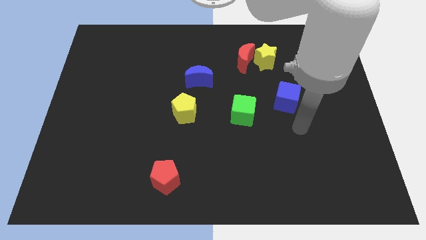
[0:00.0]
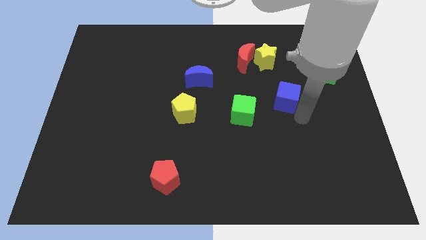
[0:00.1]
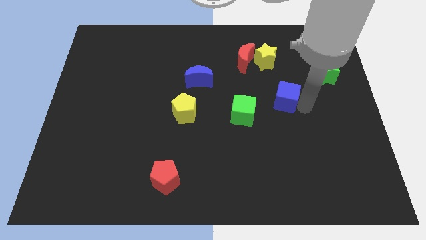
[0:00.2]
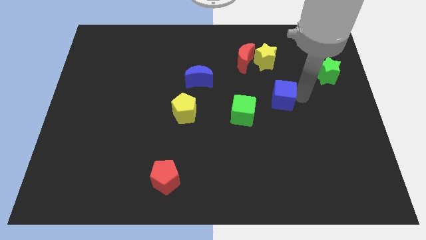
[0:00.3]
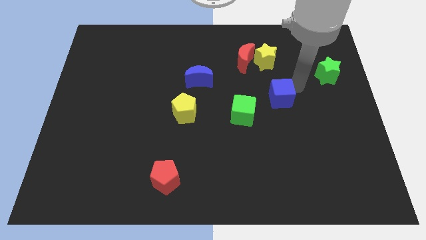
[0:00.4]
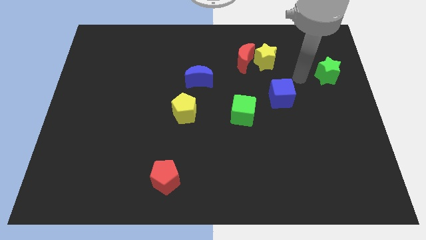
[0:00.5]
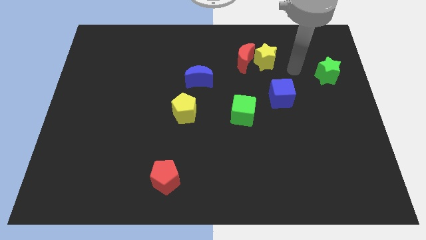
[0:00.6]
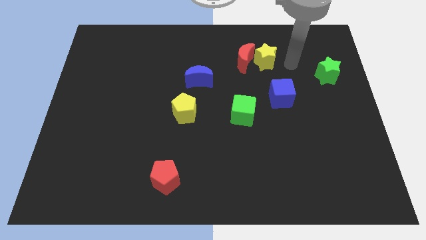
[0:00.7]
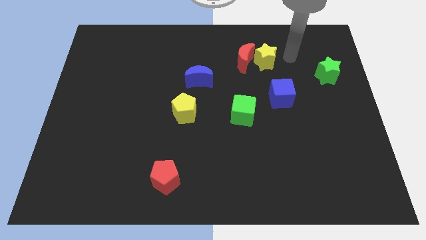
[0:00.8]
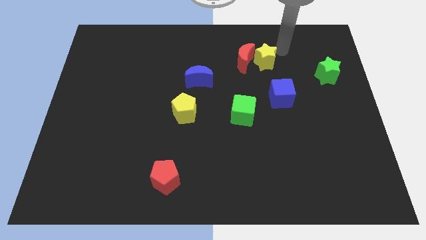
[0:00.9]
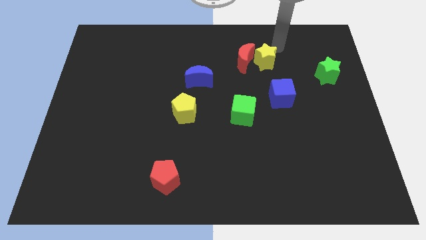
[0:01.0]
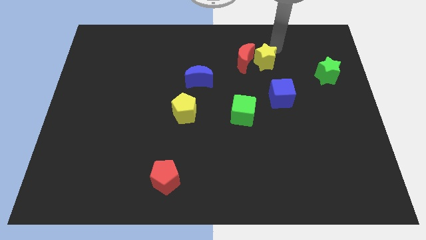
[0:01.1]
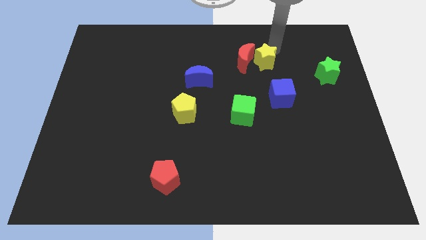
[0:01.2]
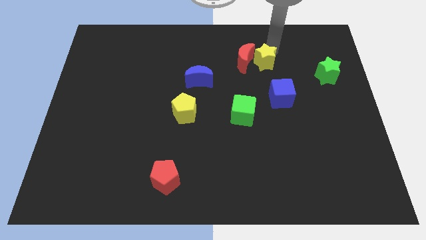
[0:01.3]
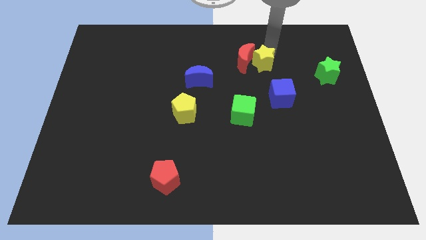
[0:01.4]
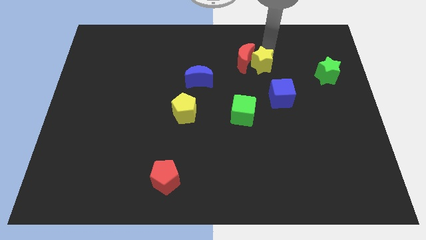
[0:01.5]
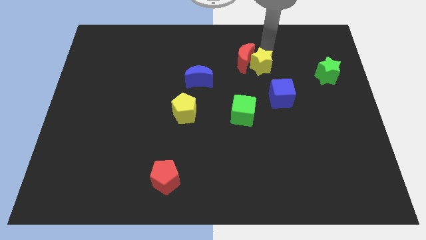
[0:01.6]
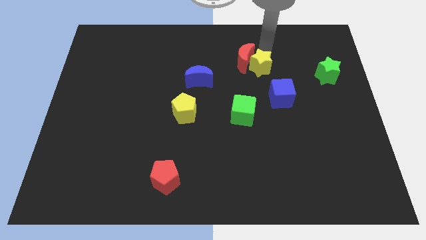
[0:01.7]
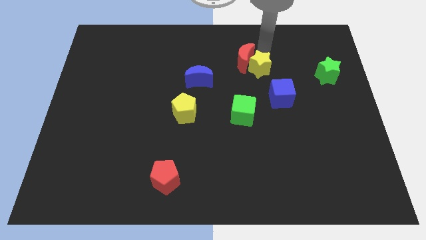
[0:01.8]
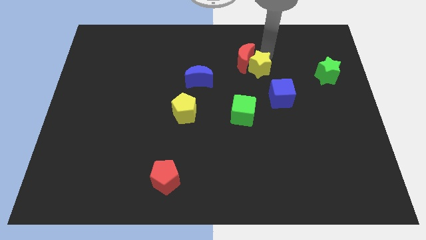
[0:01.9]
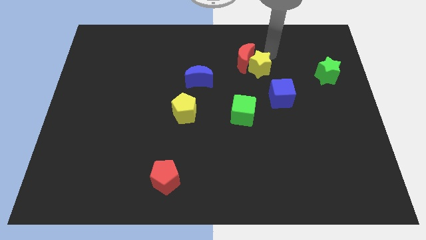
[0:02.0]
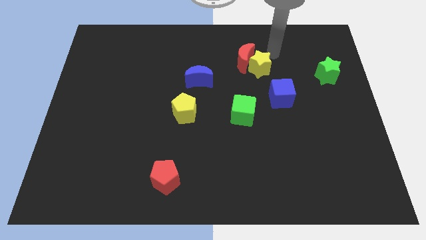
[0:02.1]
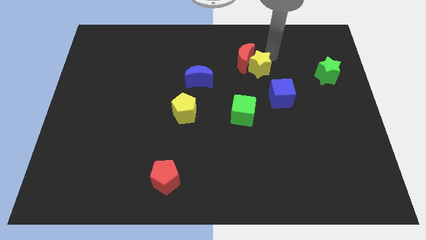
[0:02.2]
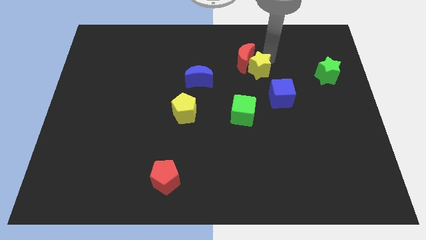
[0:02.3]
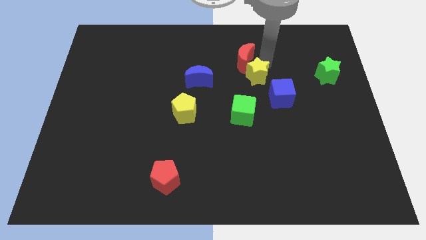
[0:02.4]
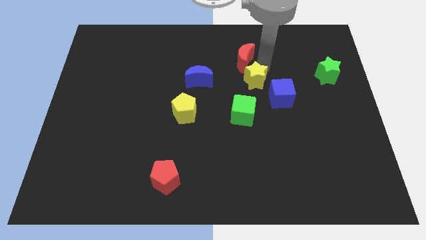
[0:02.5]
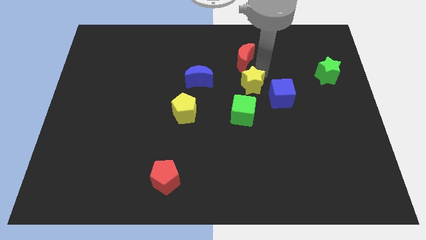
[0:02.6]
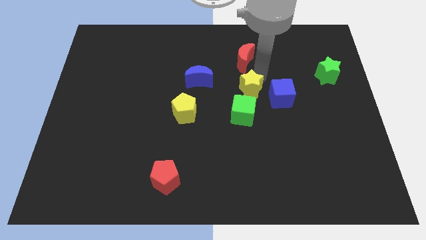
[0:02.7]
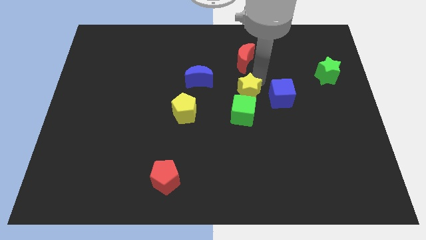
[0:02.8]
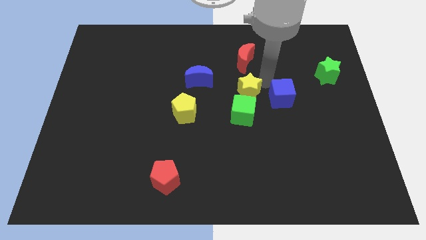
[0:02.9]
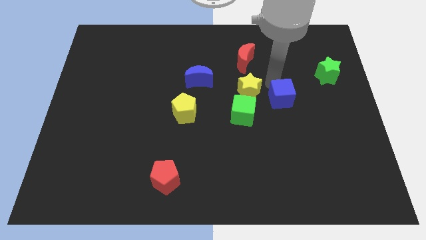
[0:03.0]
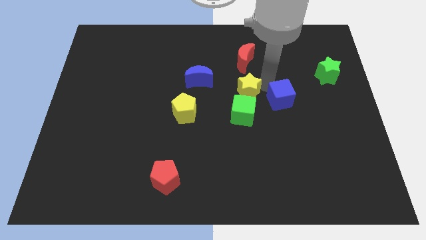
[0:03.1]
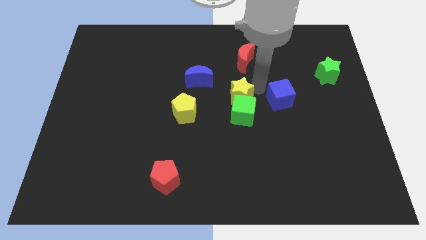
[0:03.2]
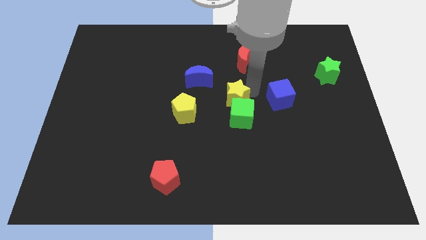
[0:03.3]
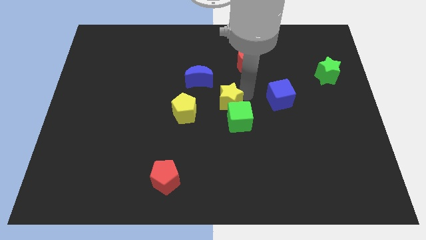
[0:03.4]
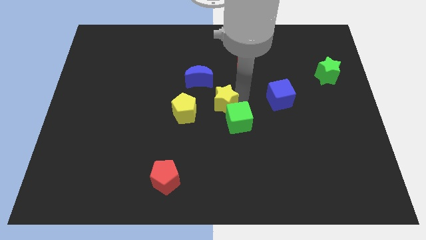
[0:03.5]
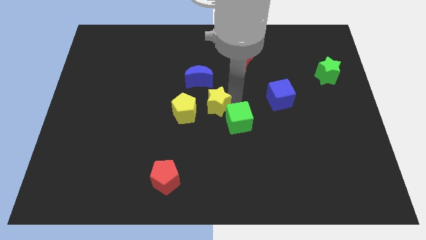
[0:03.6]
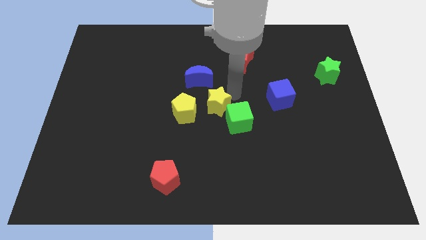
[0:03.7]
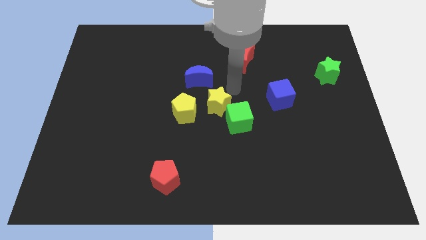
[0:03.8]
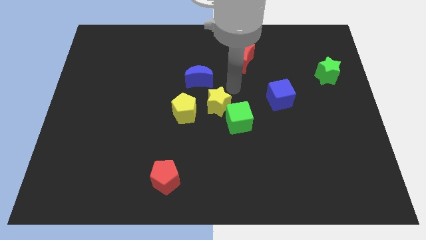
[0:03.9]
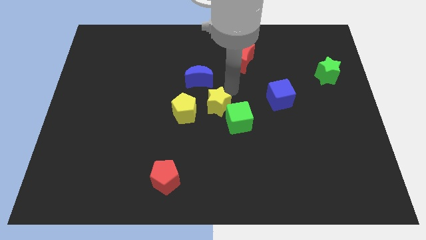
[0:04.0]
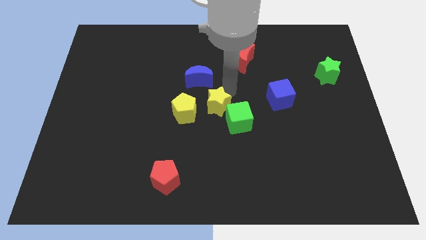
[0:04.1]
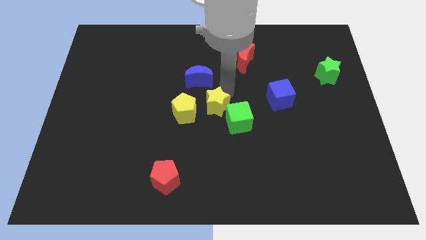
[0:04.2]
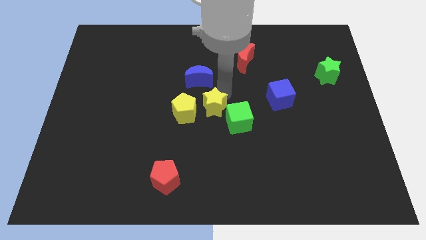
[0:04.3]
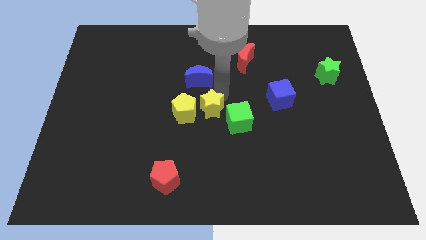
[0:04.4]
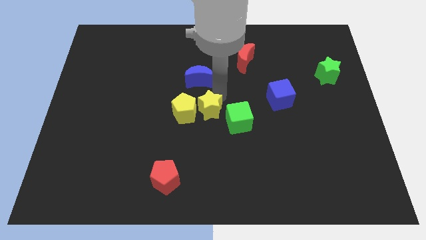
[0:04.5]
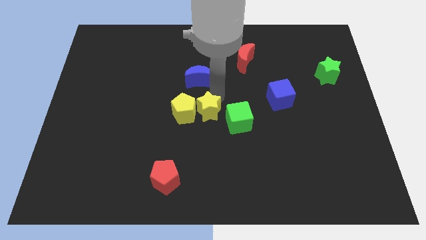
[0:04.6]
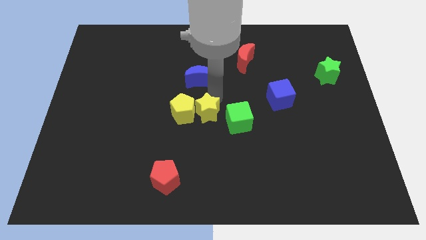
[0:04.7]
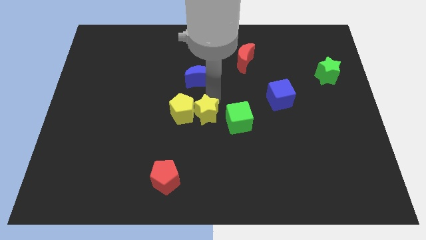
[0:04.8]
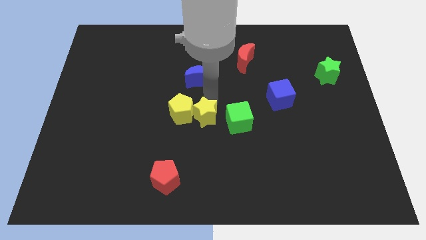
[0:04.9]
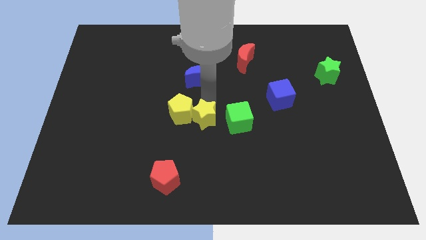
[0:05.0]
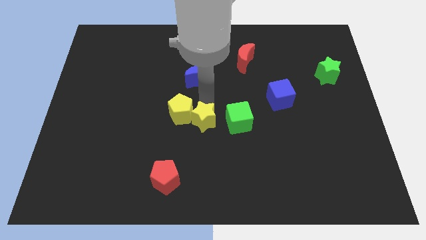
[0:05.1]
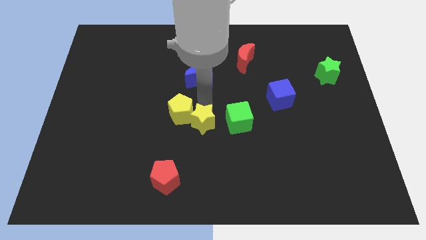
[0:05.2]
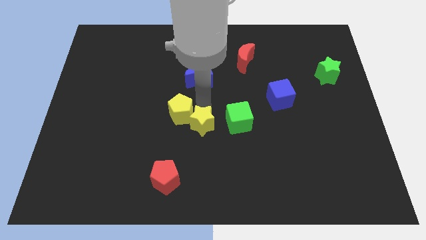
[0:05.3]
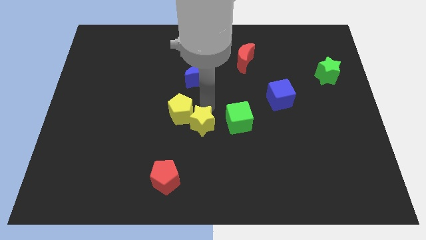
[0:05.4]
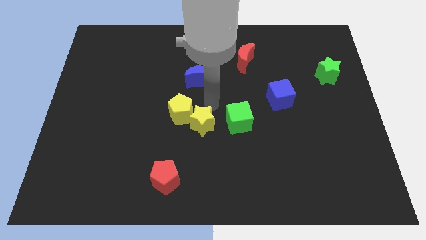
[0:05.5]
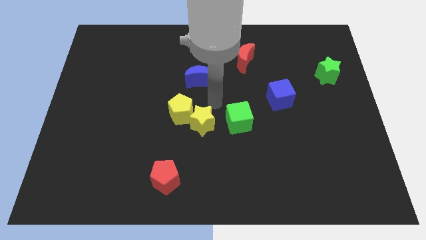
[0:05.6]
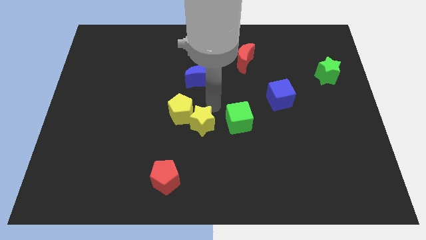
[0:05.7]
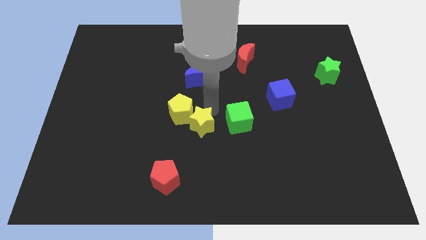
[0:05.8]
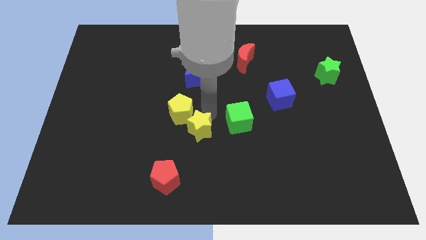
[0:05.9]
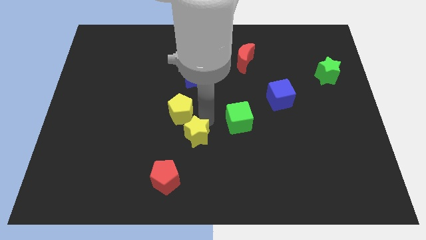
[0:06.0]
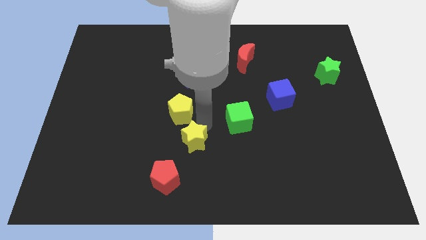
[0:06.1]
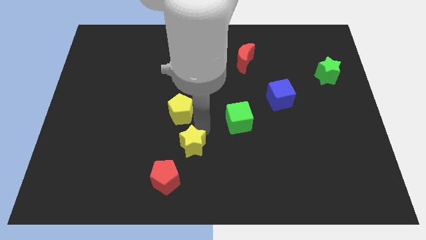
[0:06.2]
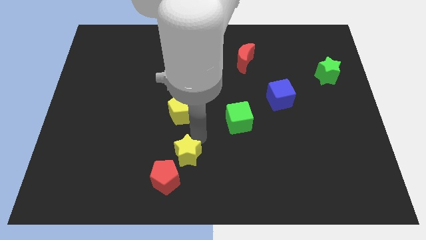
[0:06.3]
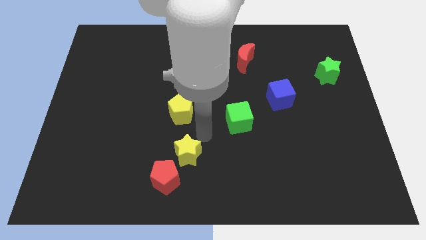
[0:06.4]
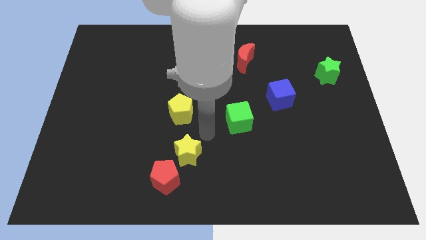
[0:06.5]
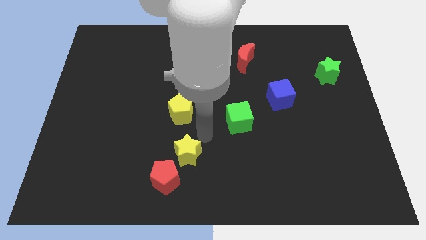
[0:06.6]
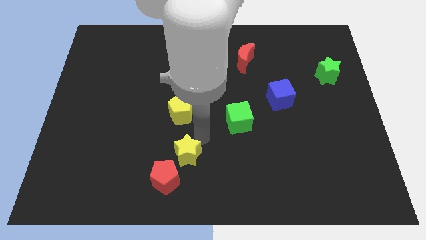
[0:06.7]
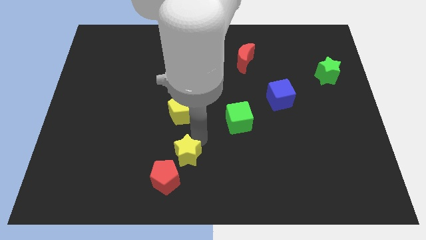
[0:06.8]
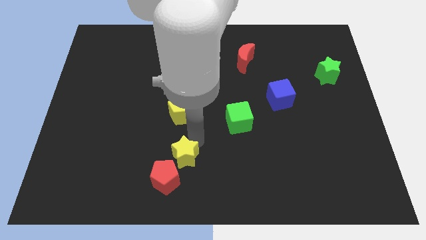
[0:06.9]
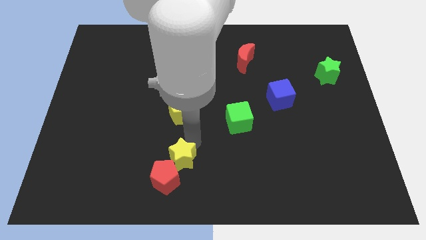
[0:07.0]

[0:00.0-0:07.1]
slide the yellow star to the red pentagon
